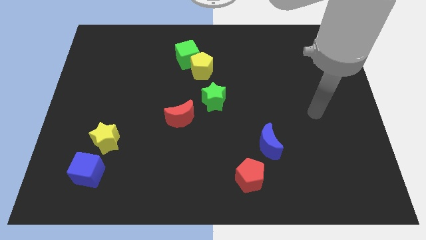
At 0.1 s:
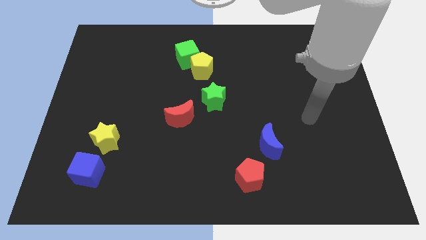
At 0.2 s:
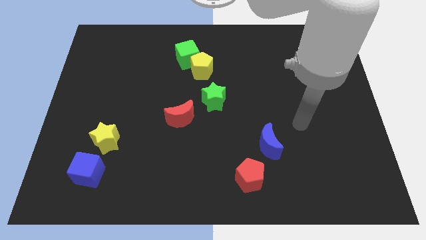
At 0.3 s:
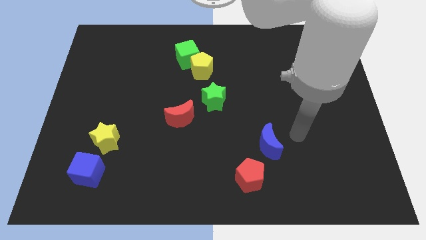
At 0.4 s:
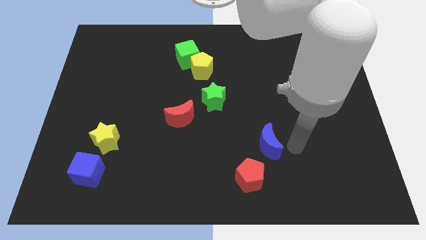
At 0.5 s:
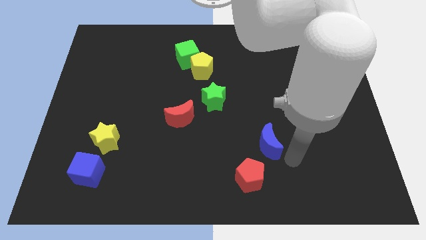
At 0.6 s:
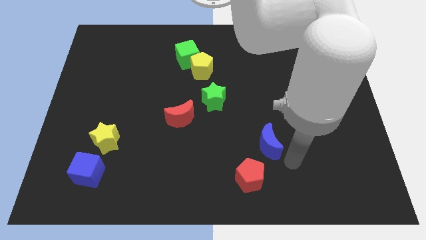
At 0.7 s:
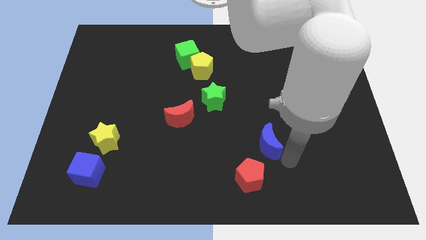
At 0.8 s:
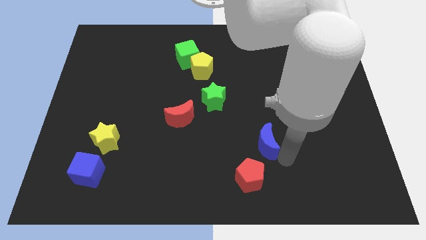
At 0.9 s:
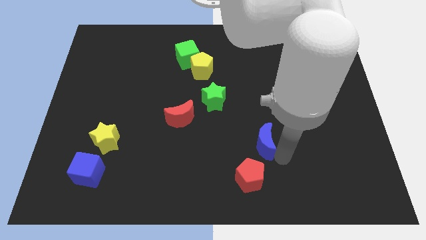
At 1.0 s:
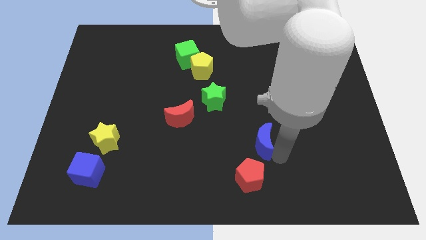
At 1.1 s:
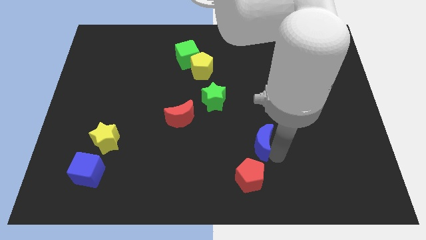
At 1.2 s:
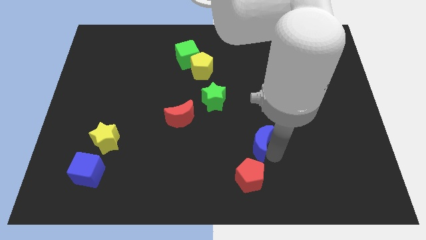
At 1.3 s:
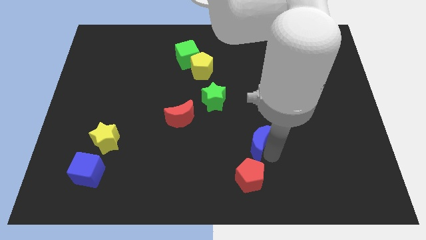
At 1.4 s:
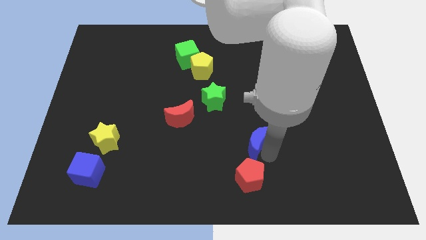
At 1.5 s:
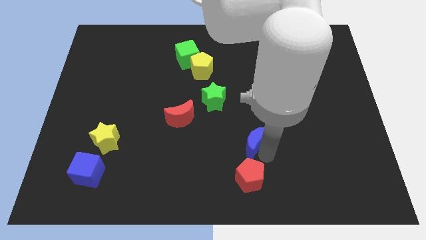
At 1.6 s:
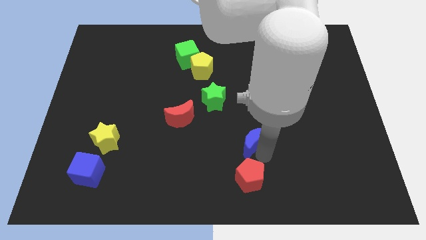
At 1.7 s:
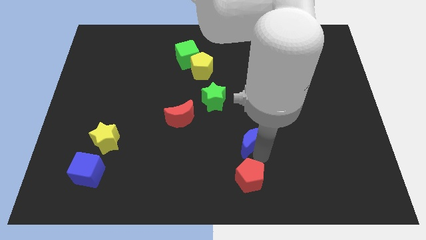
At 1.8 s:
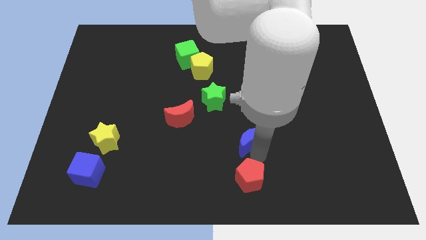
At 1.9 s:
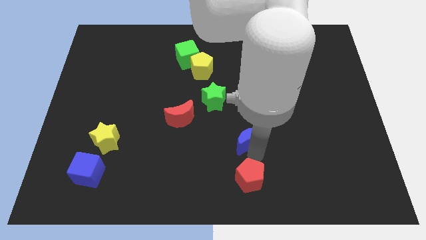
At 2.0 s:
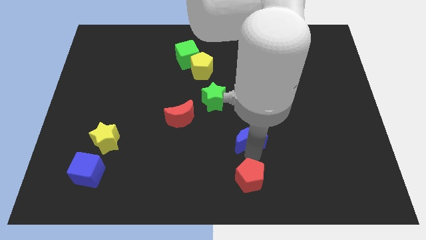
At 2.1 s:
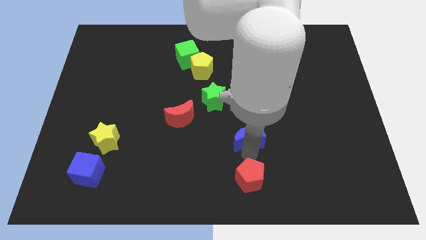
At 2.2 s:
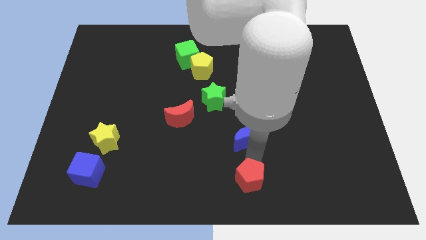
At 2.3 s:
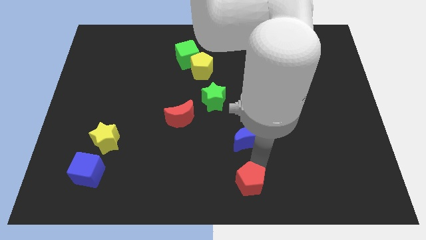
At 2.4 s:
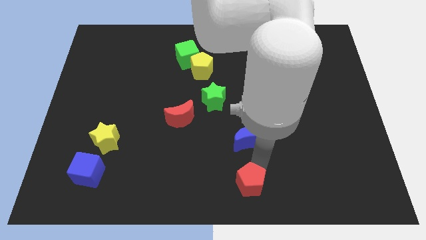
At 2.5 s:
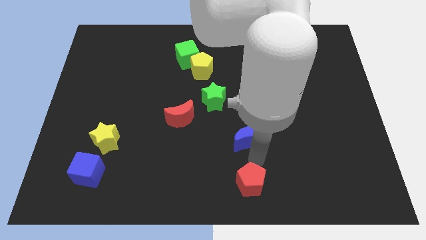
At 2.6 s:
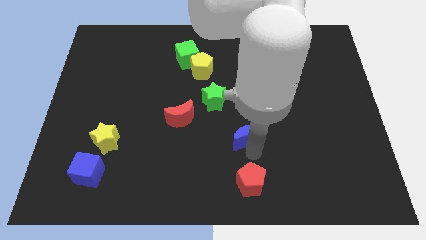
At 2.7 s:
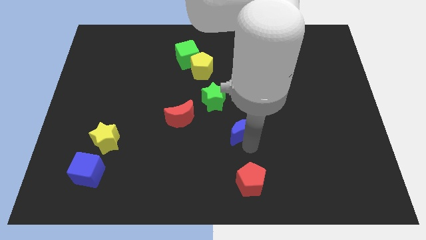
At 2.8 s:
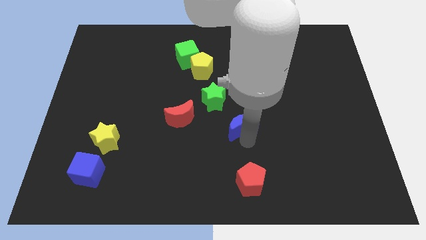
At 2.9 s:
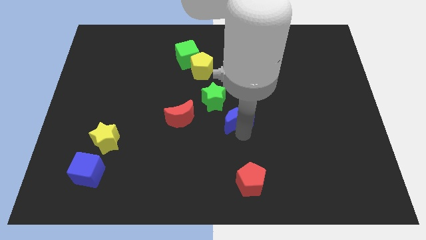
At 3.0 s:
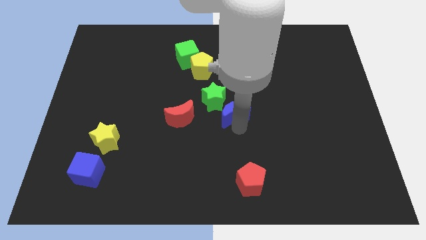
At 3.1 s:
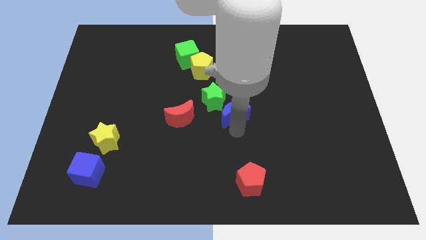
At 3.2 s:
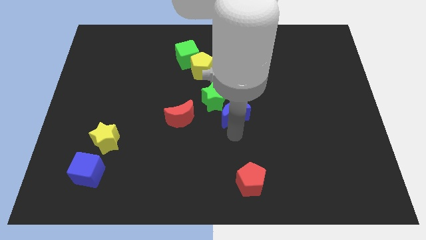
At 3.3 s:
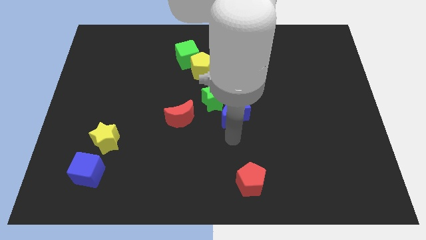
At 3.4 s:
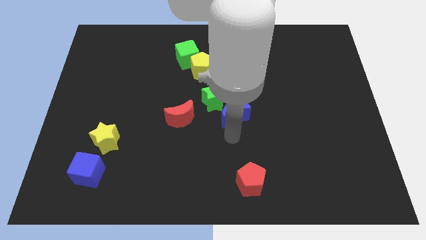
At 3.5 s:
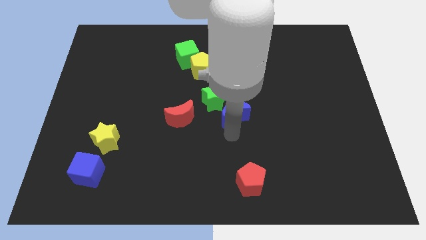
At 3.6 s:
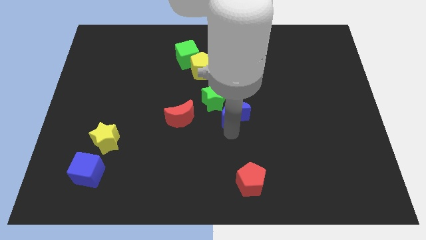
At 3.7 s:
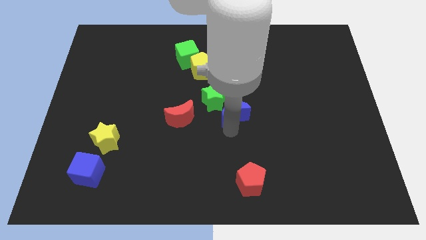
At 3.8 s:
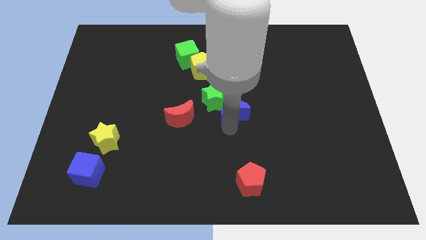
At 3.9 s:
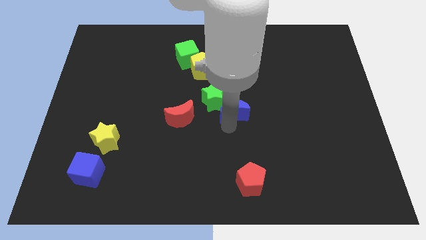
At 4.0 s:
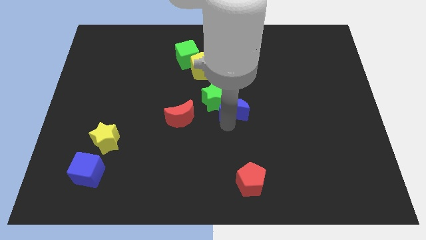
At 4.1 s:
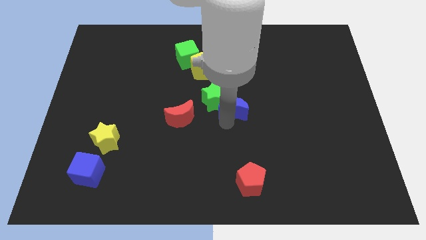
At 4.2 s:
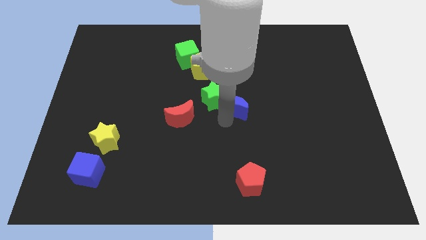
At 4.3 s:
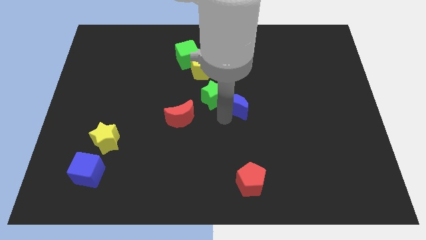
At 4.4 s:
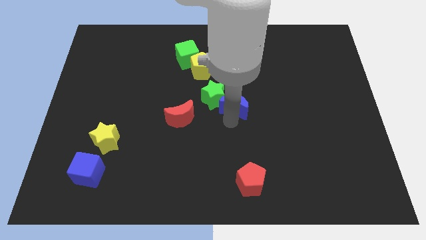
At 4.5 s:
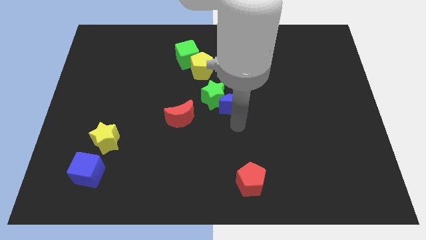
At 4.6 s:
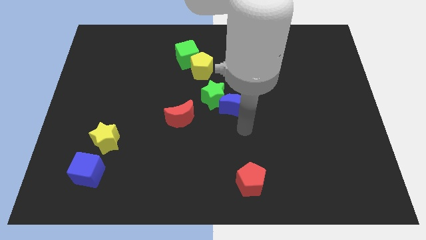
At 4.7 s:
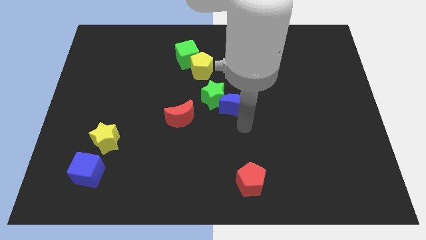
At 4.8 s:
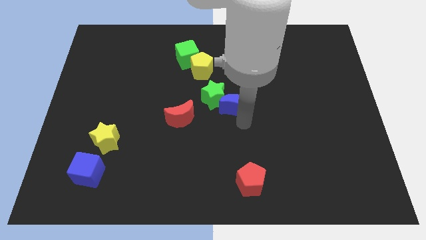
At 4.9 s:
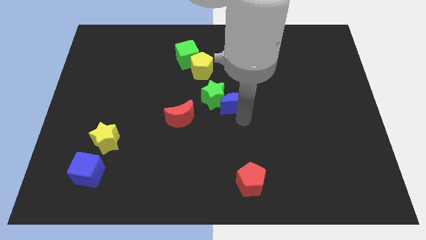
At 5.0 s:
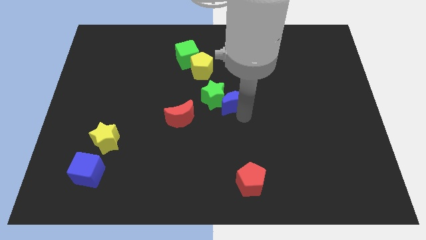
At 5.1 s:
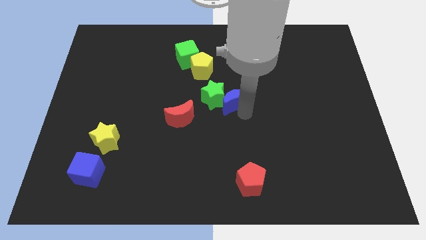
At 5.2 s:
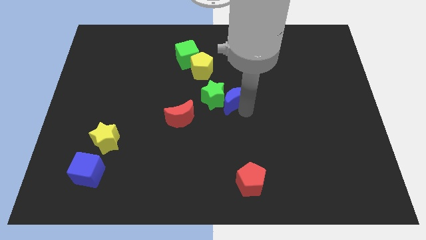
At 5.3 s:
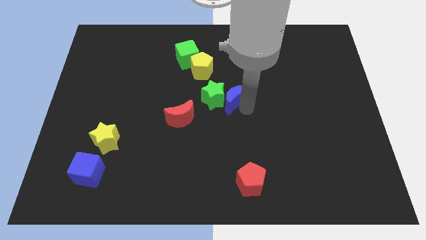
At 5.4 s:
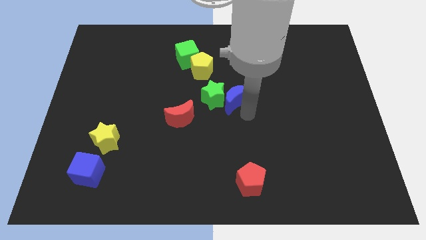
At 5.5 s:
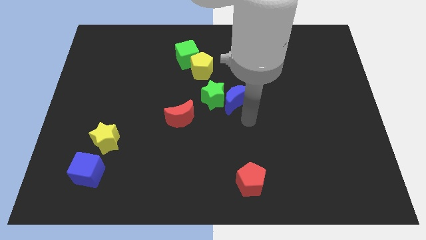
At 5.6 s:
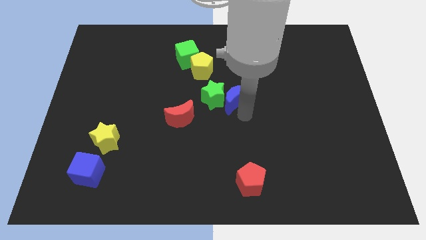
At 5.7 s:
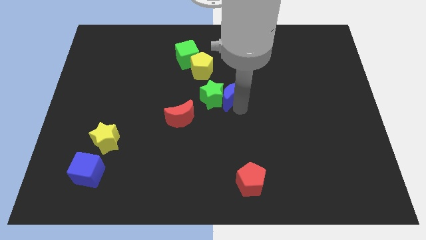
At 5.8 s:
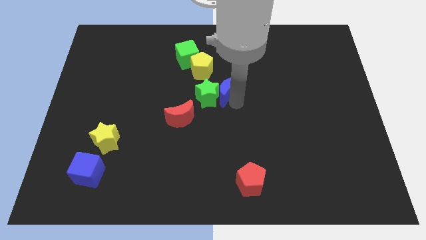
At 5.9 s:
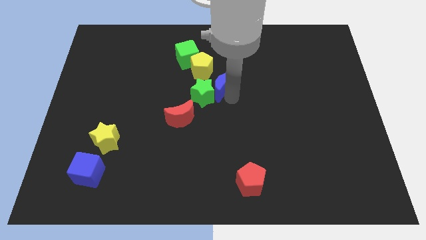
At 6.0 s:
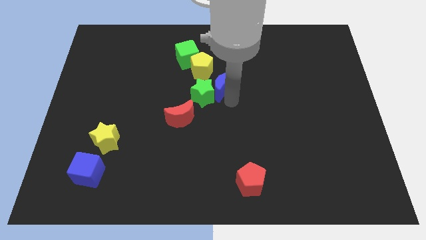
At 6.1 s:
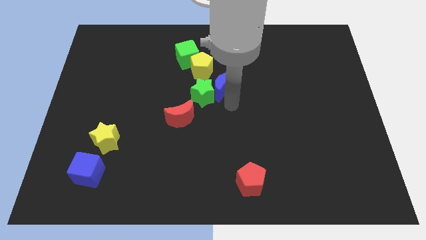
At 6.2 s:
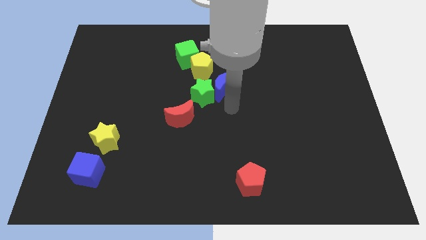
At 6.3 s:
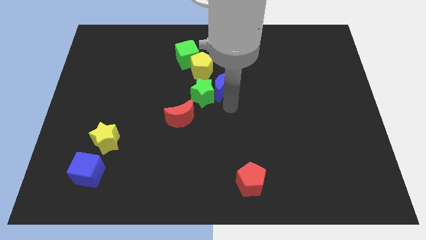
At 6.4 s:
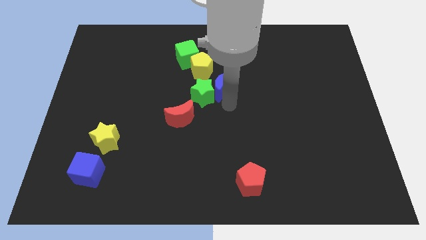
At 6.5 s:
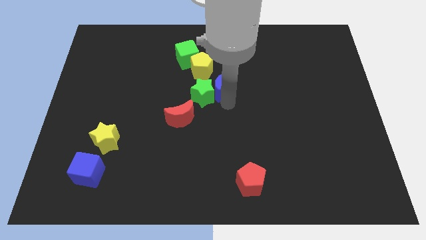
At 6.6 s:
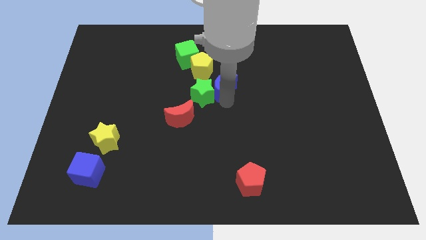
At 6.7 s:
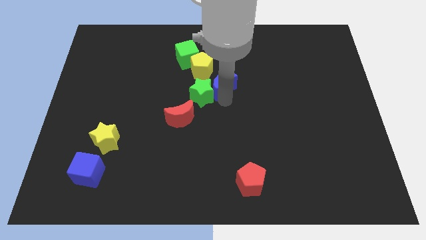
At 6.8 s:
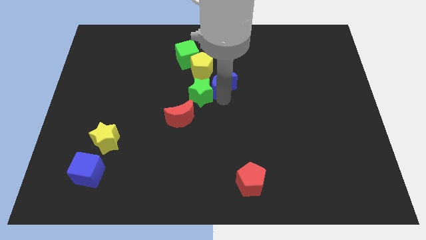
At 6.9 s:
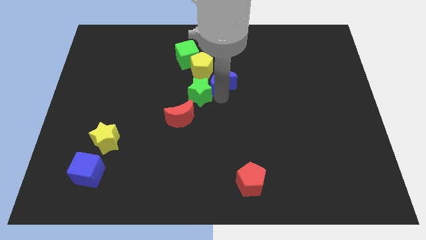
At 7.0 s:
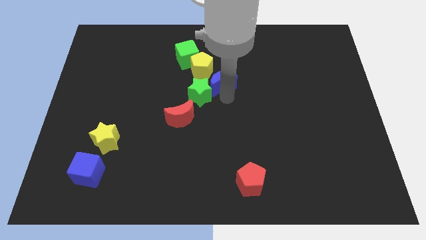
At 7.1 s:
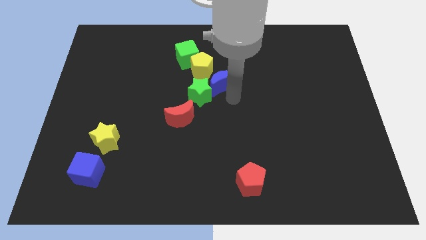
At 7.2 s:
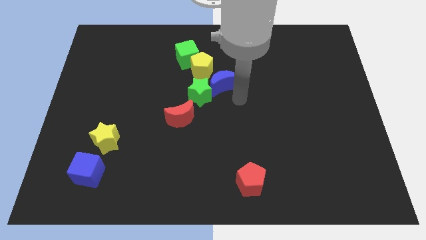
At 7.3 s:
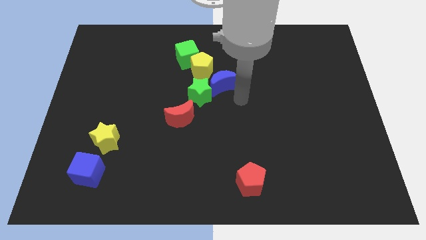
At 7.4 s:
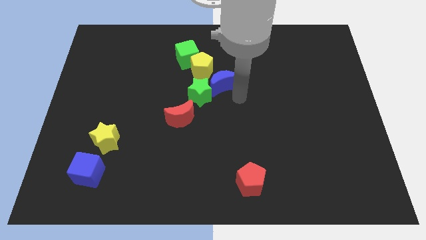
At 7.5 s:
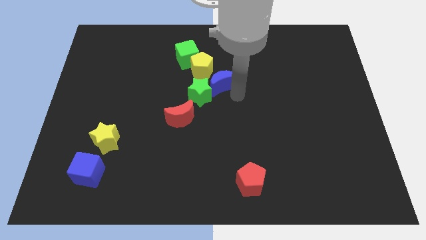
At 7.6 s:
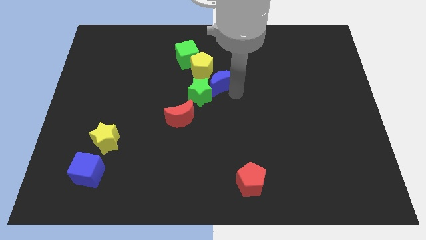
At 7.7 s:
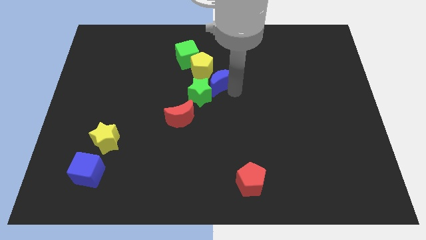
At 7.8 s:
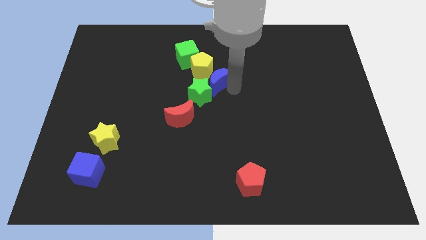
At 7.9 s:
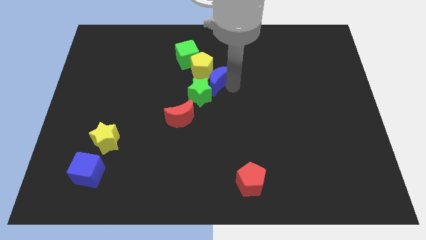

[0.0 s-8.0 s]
put the blue moon close to the yellow pentagon
